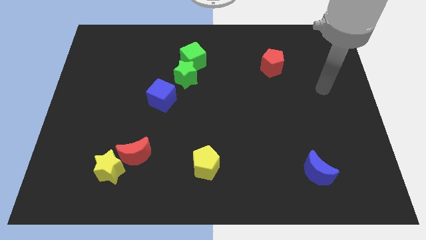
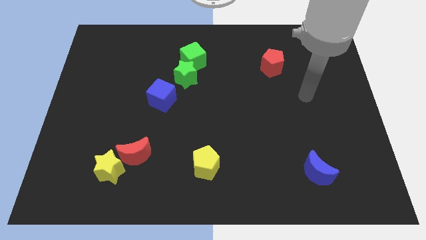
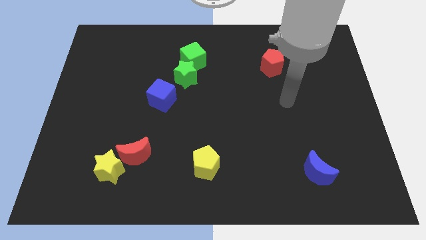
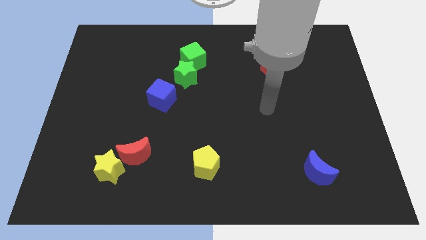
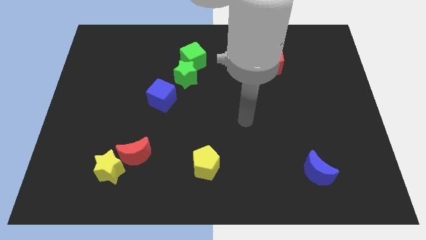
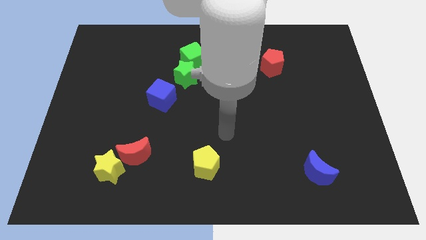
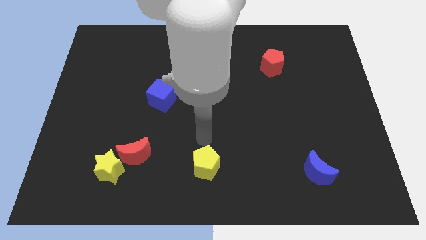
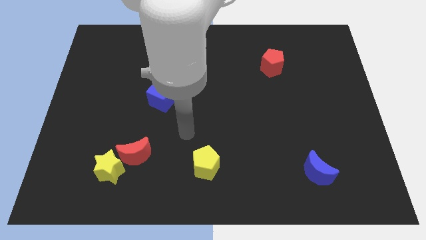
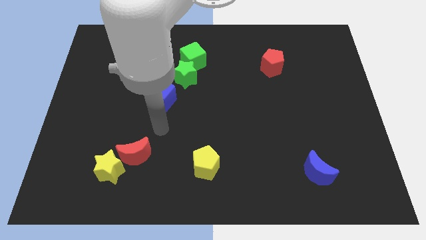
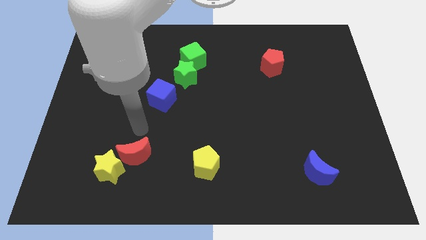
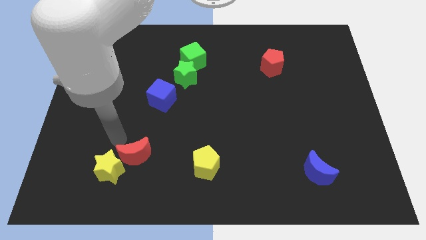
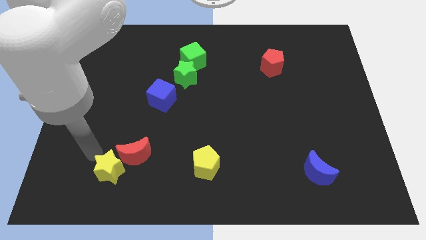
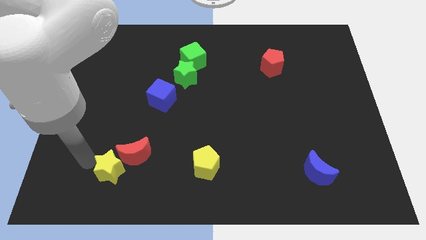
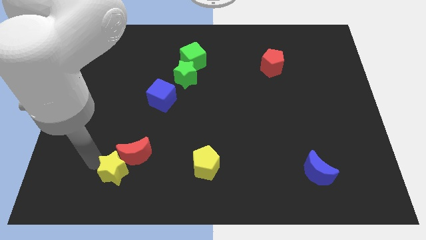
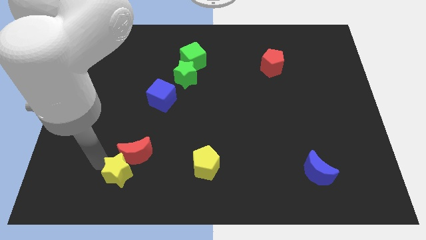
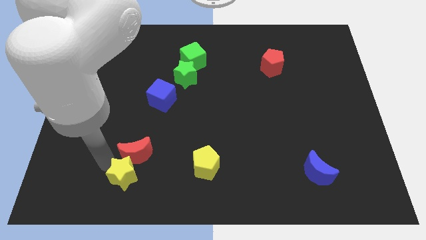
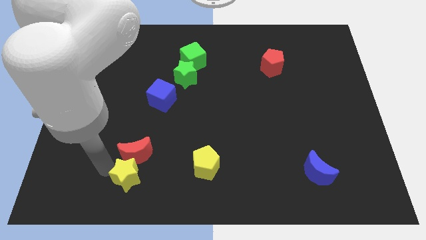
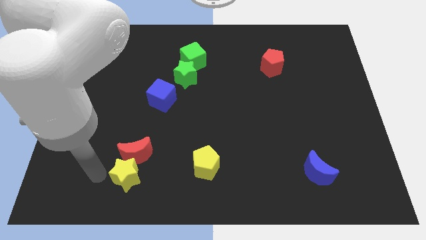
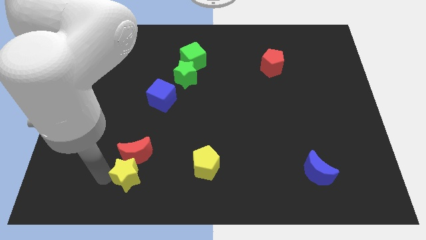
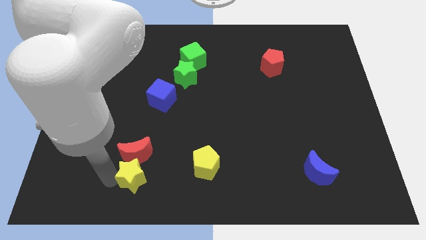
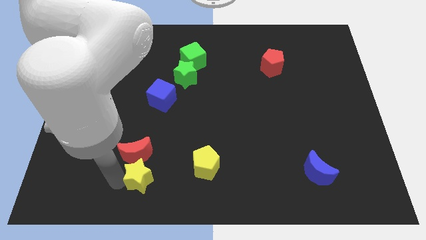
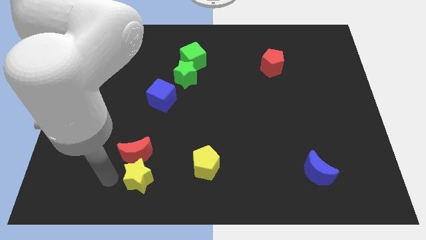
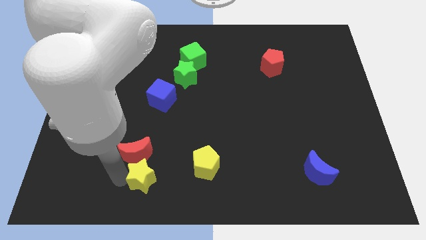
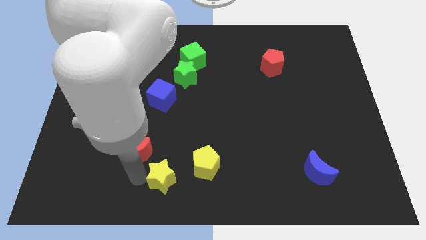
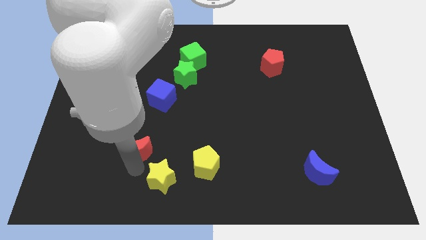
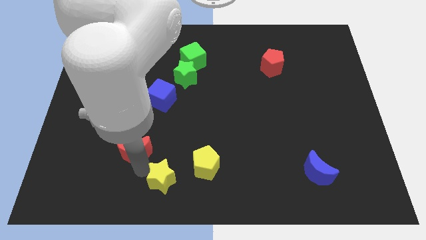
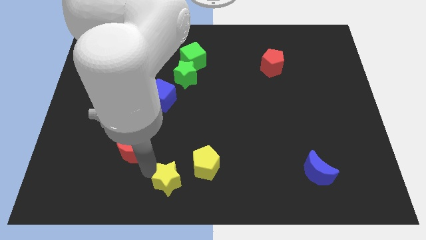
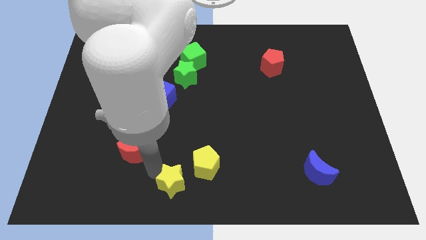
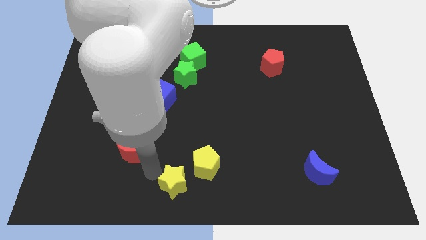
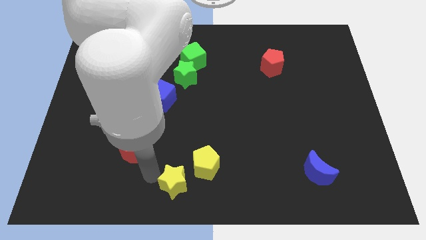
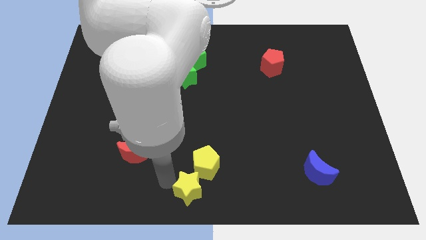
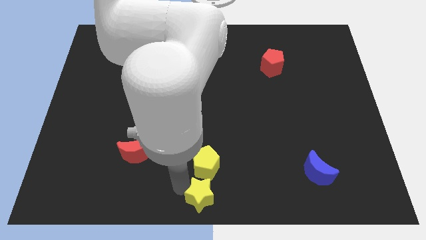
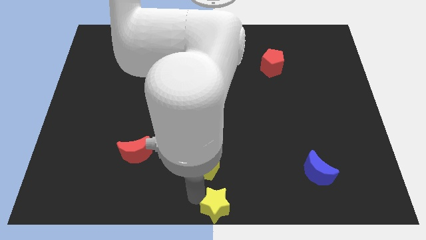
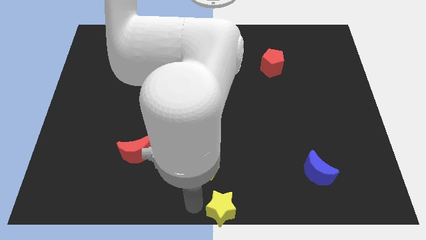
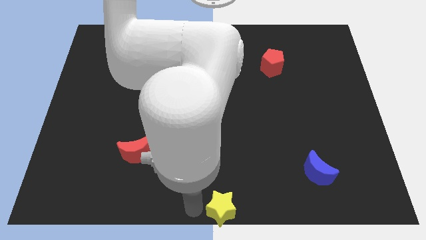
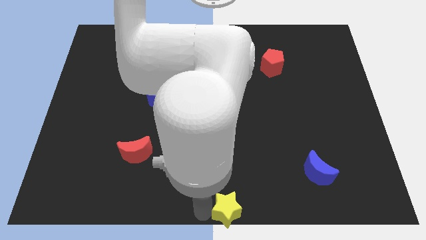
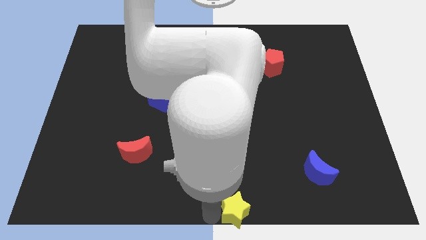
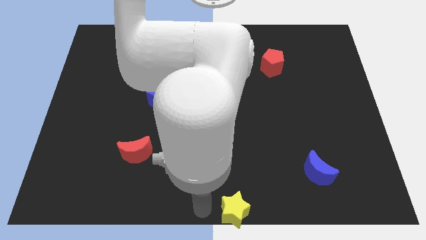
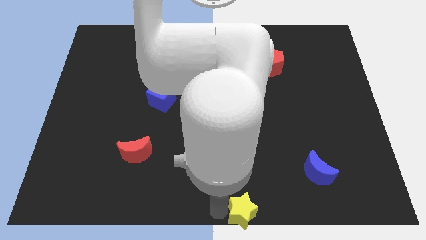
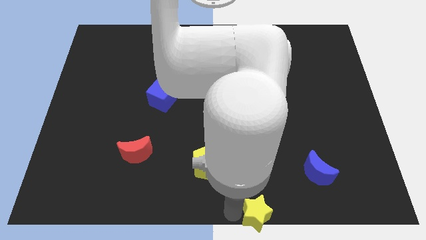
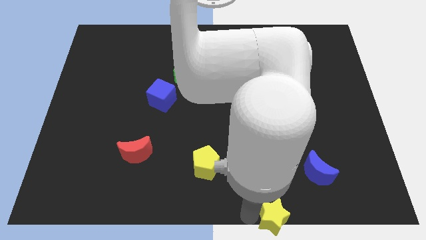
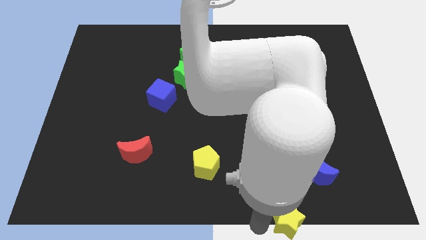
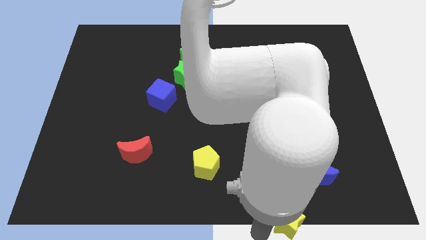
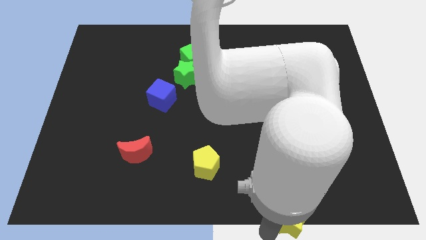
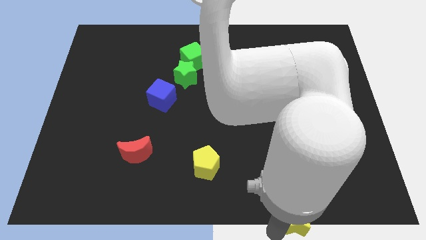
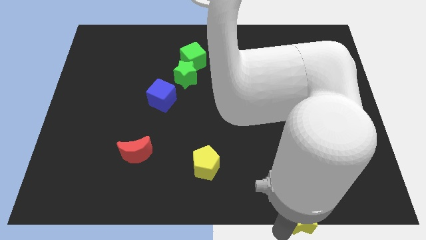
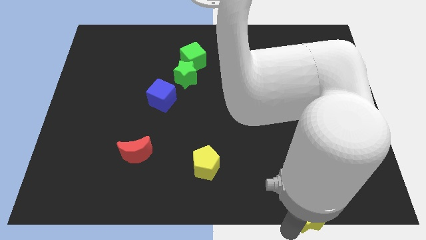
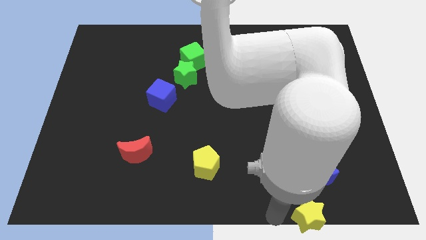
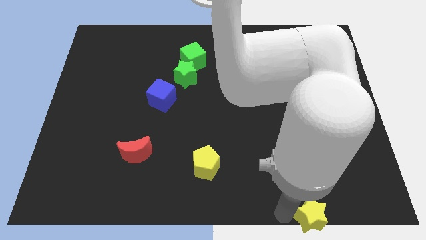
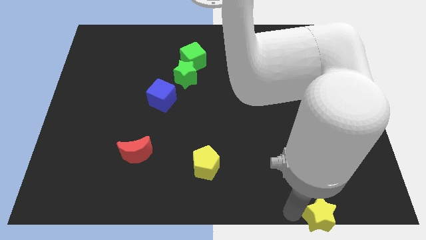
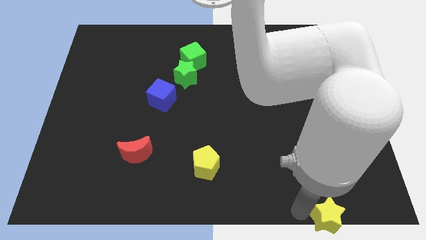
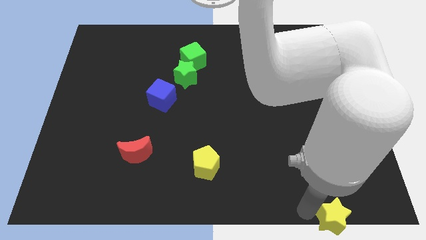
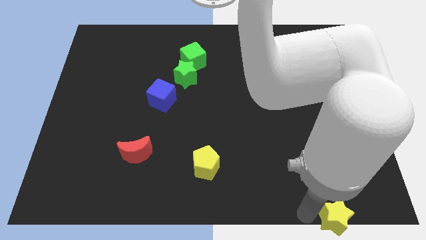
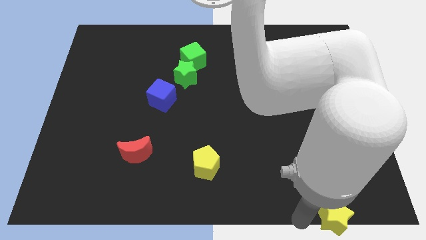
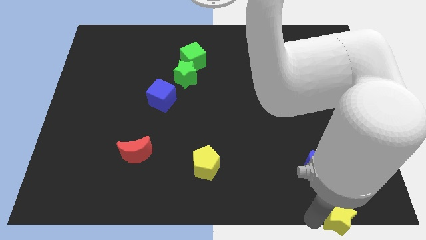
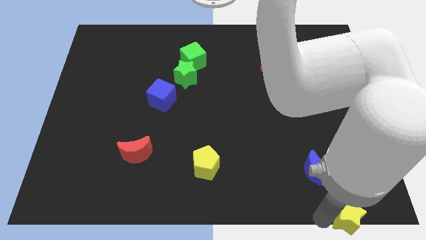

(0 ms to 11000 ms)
move the yellow star to the bottom right
